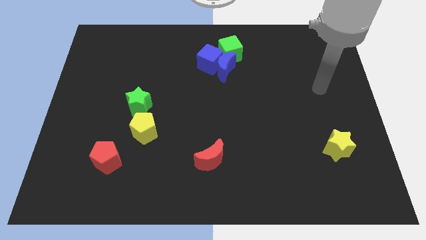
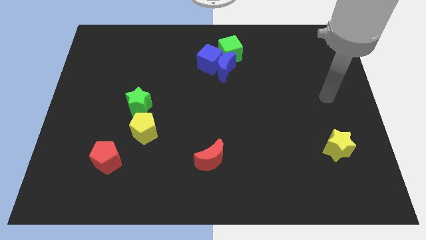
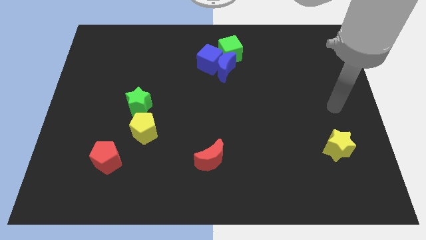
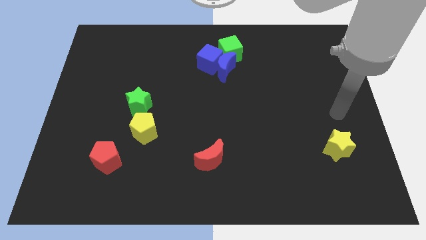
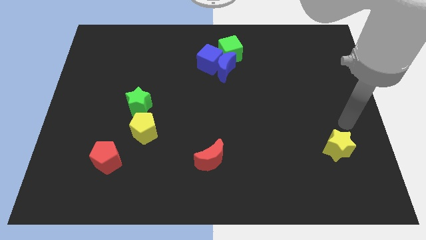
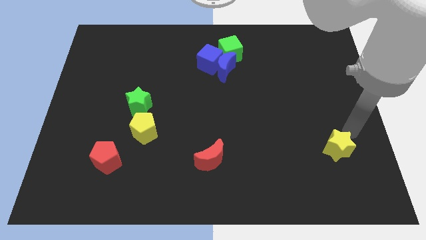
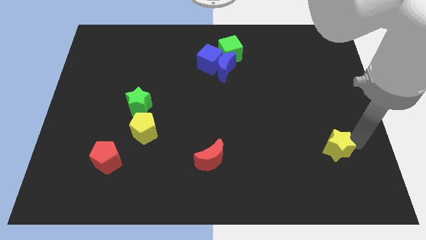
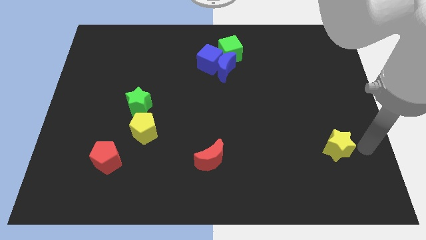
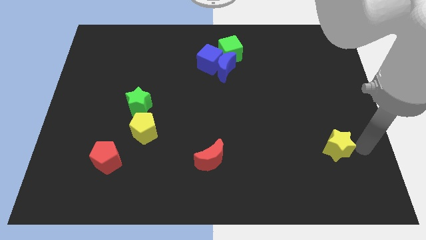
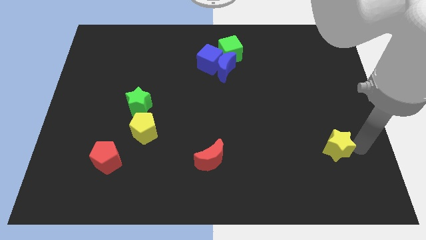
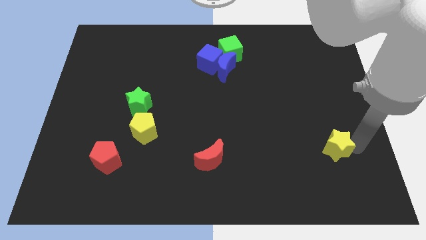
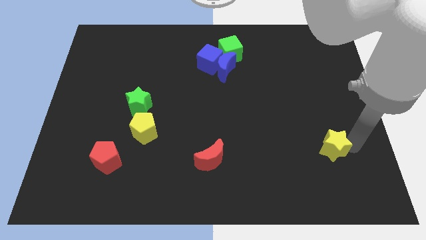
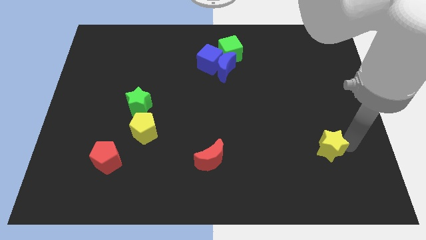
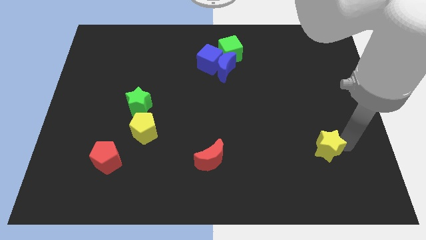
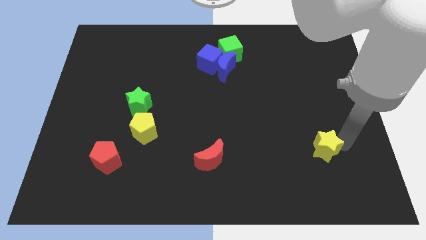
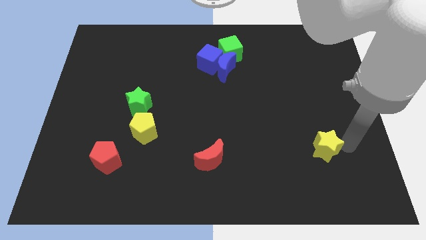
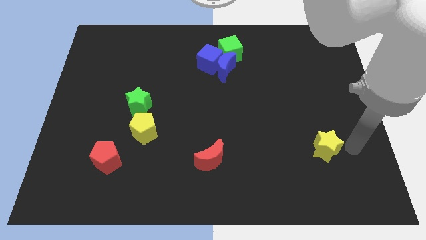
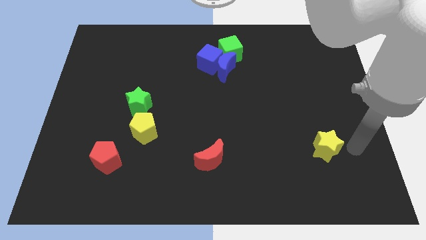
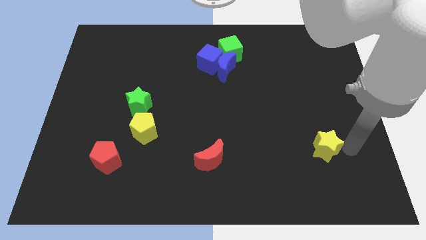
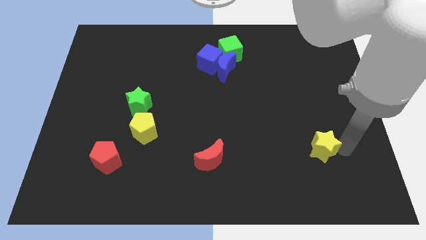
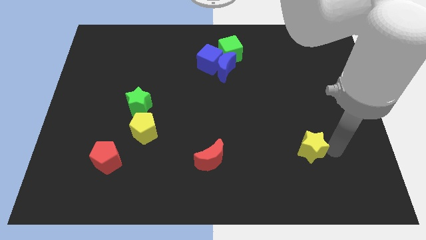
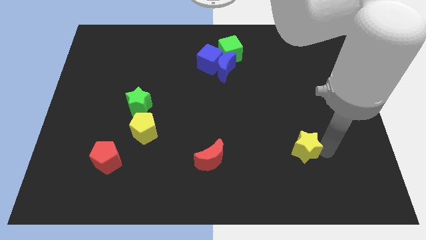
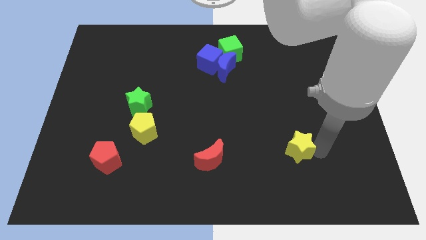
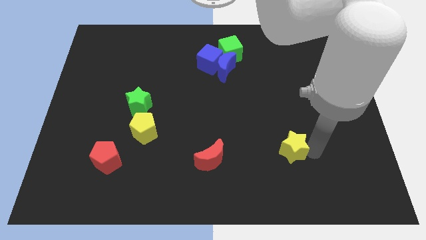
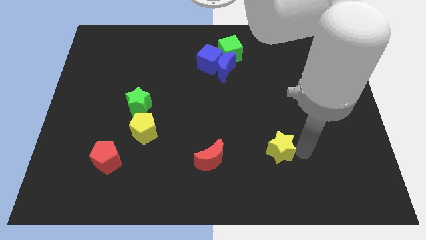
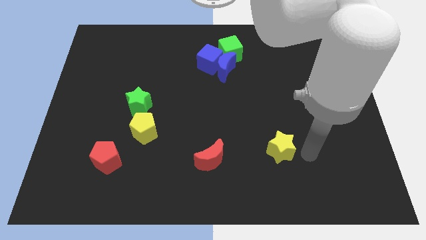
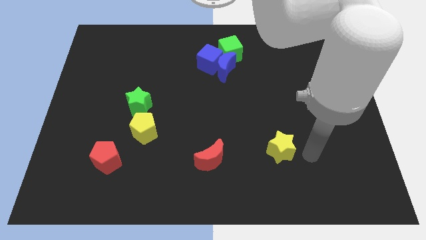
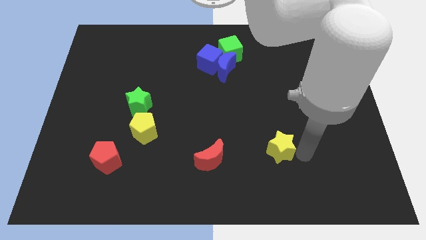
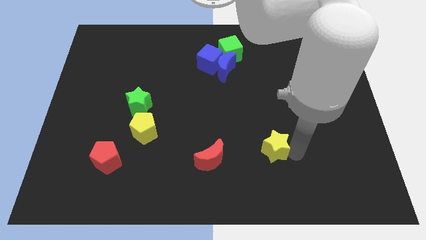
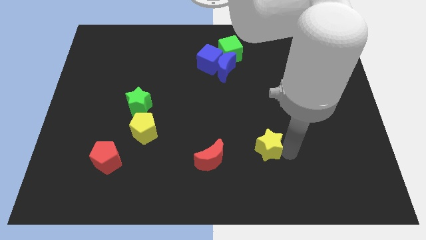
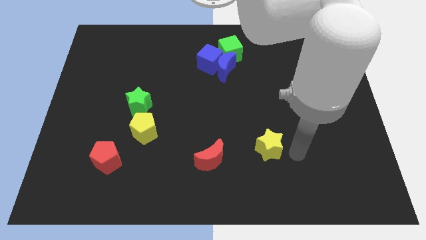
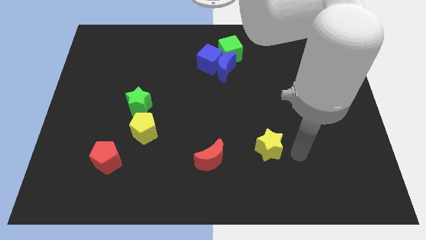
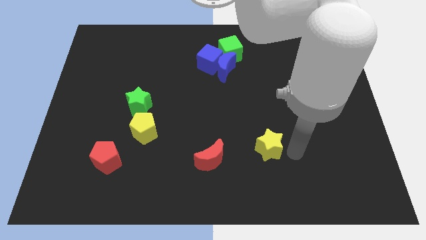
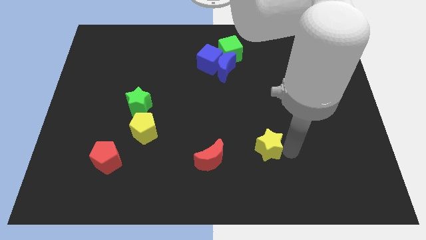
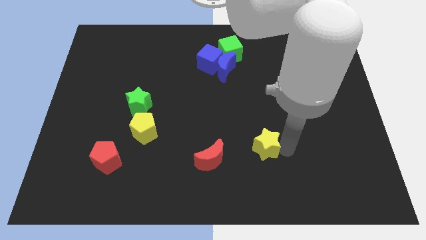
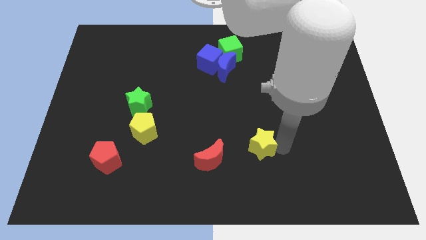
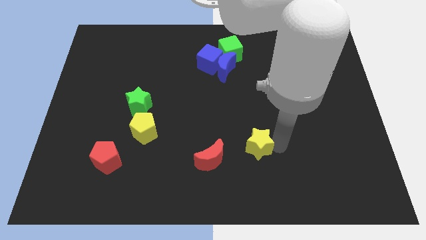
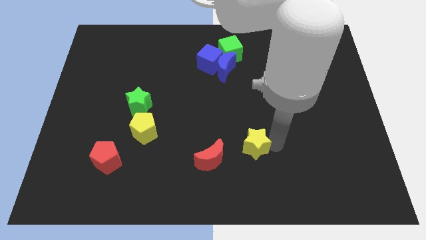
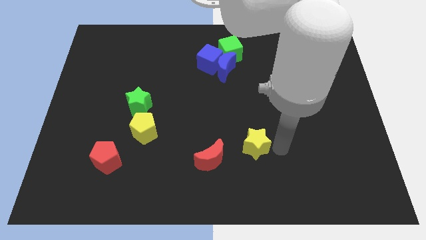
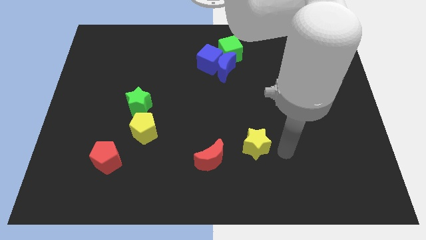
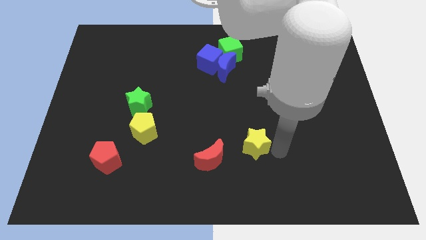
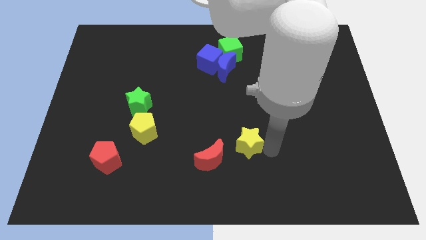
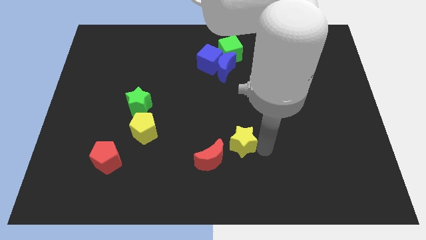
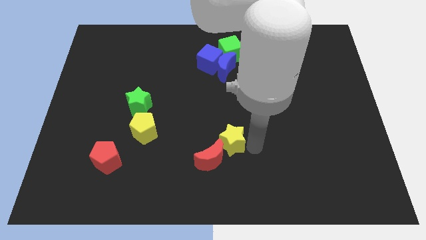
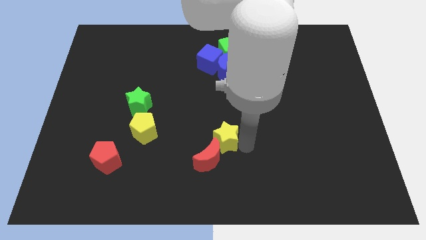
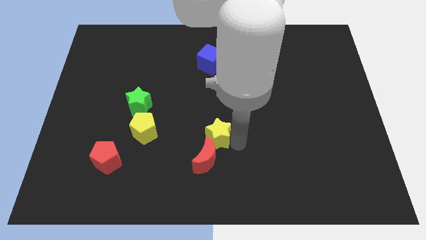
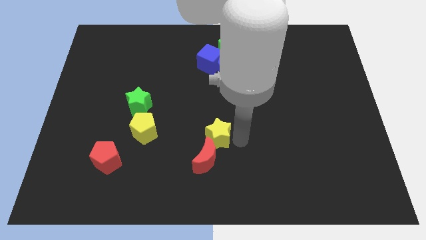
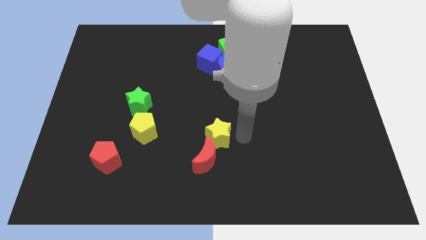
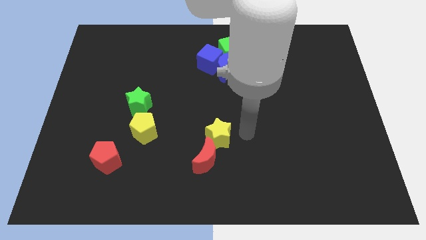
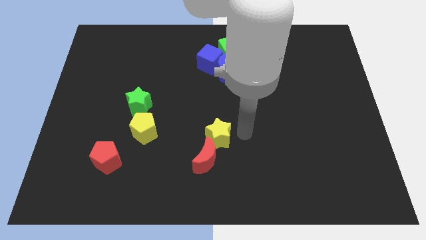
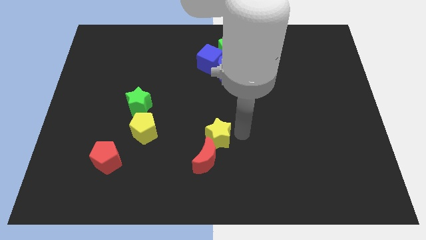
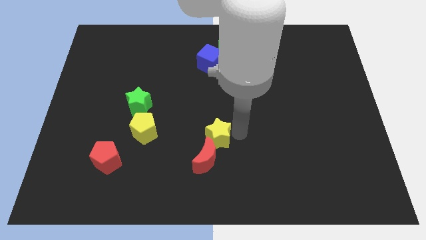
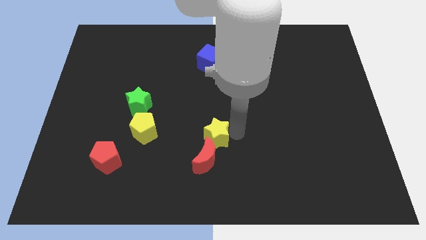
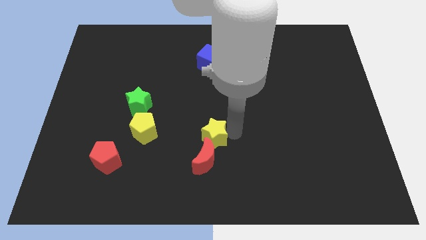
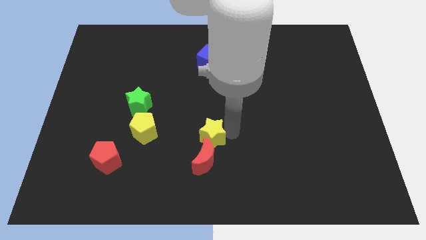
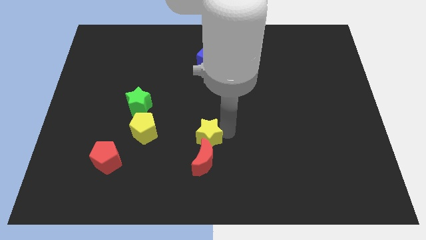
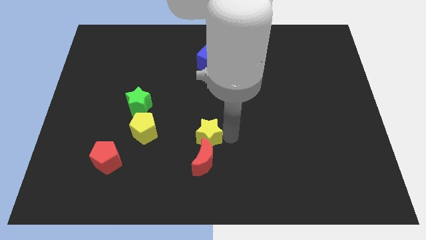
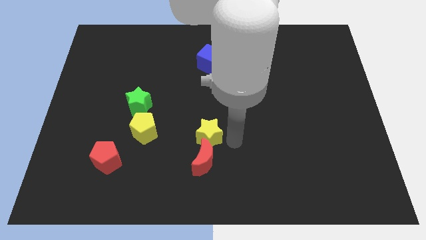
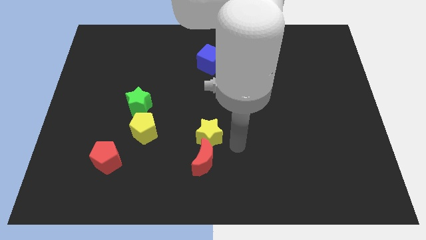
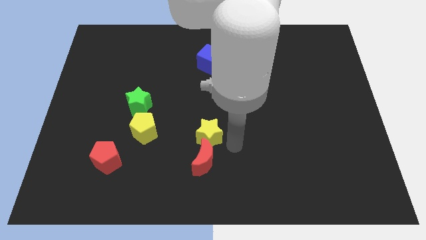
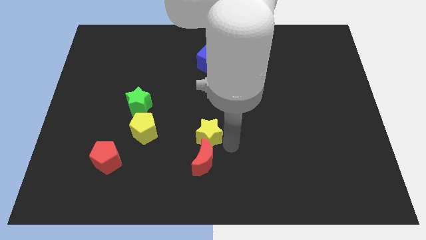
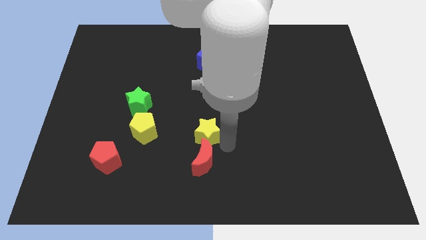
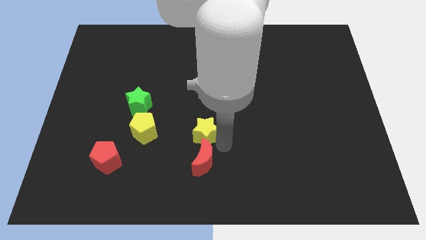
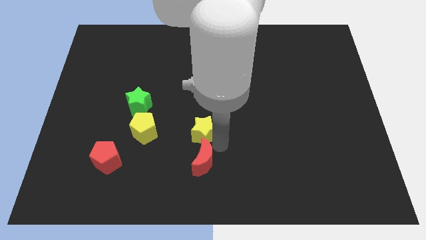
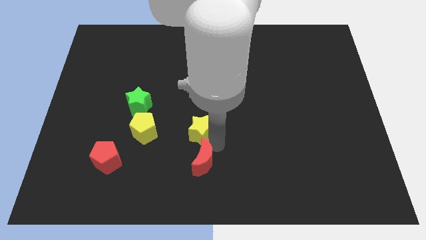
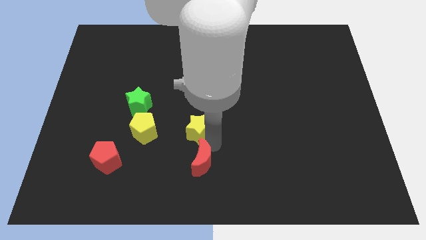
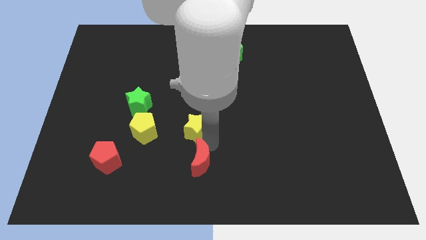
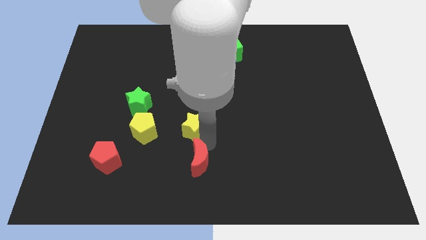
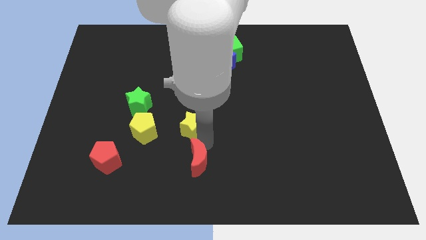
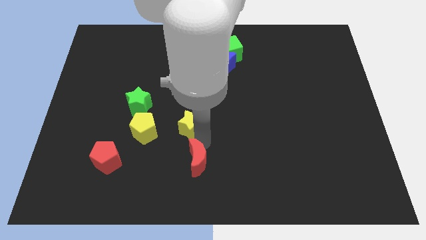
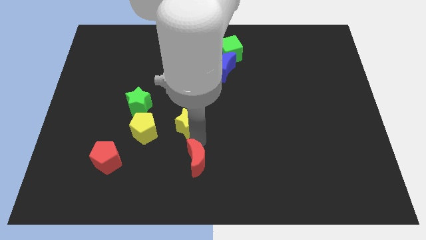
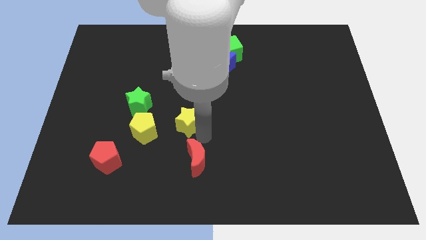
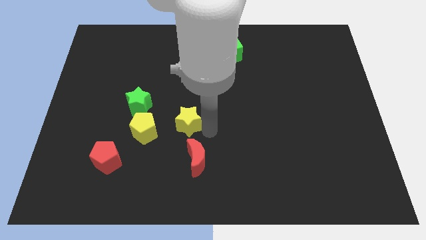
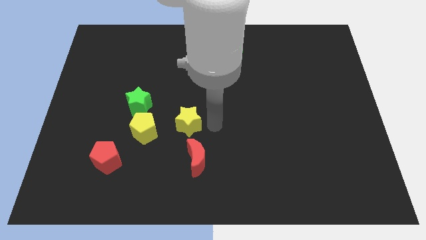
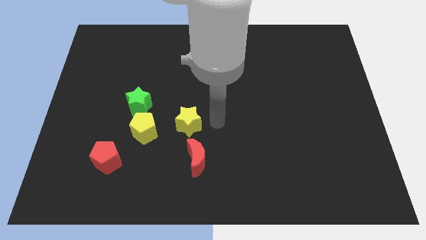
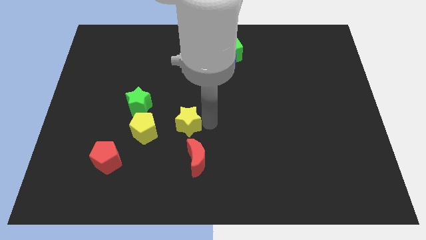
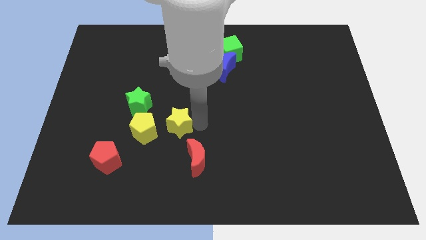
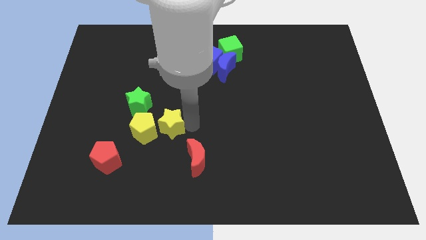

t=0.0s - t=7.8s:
slide the yellow star towards the yellow pentagon
